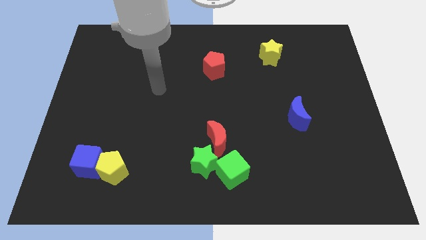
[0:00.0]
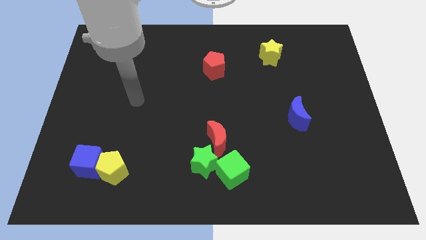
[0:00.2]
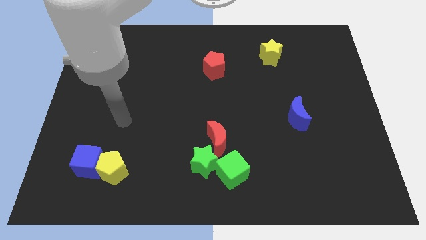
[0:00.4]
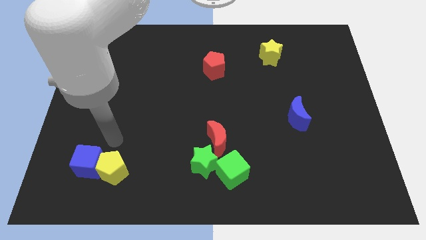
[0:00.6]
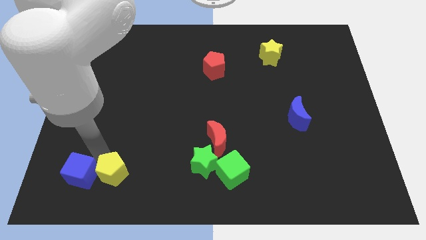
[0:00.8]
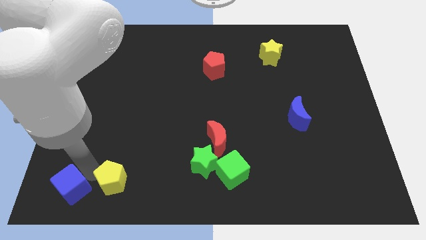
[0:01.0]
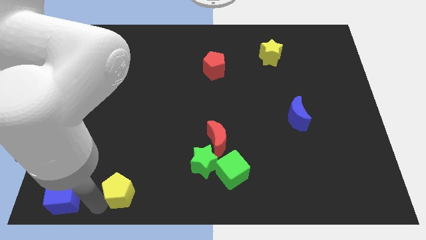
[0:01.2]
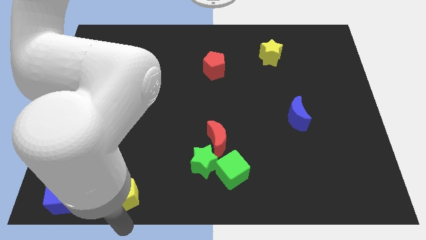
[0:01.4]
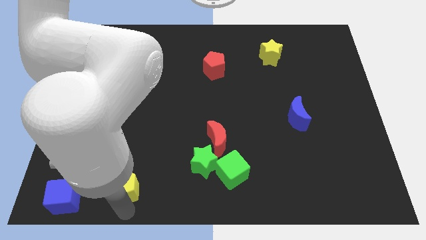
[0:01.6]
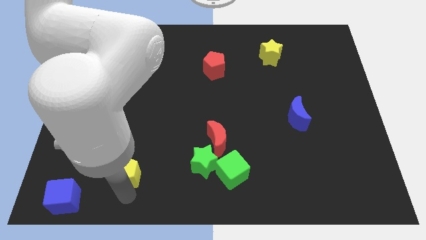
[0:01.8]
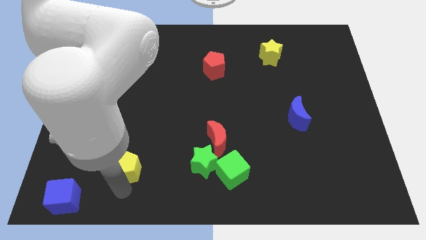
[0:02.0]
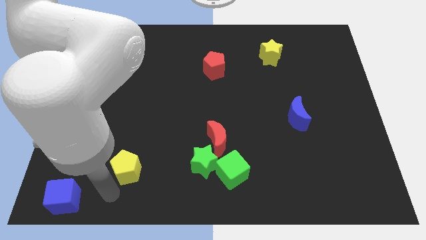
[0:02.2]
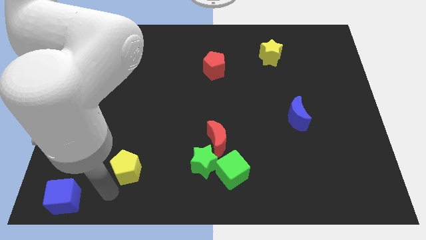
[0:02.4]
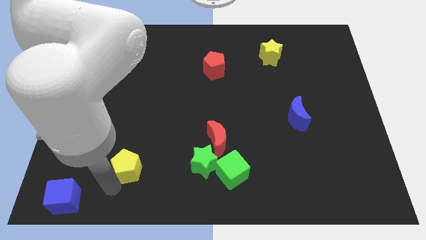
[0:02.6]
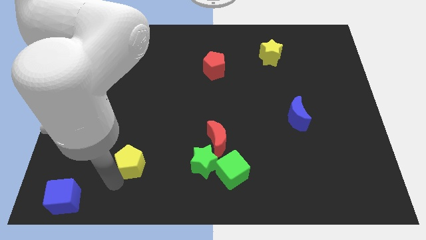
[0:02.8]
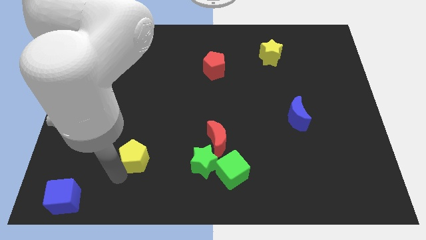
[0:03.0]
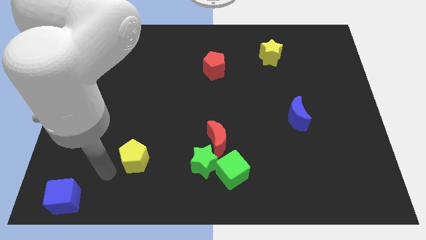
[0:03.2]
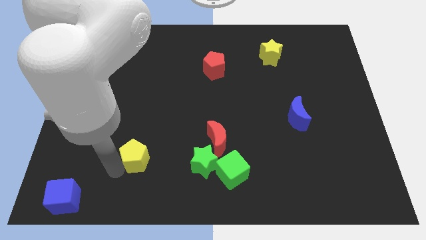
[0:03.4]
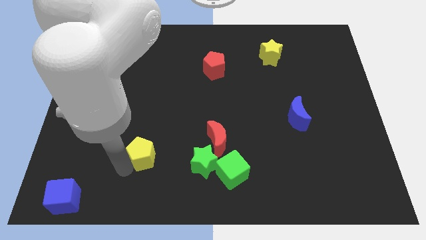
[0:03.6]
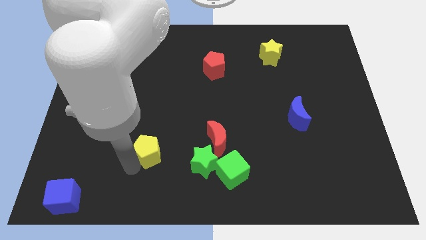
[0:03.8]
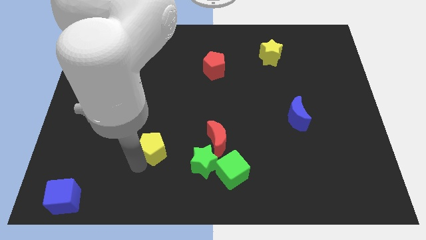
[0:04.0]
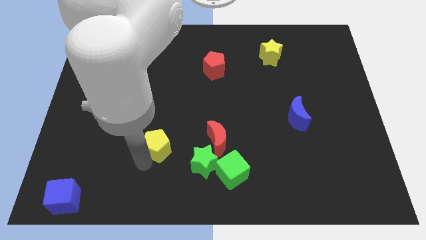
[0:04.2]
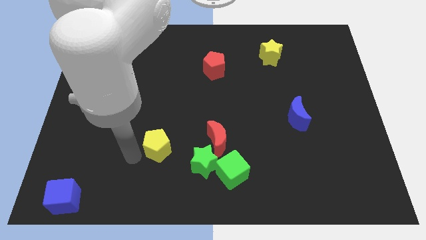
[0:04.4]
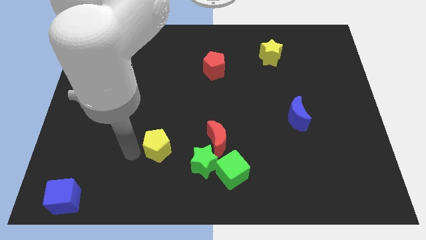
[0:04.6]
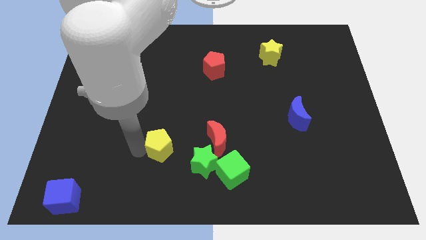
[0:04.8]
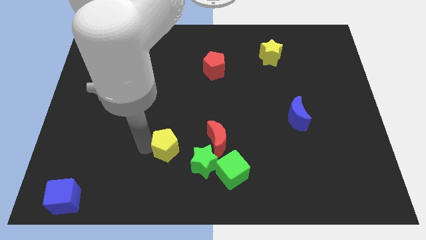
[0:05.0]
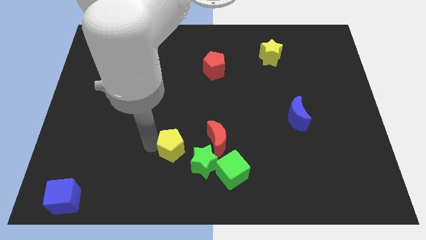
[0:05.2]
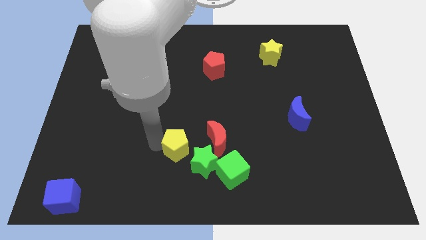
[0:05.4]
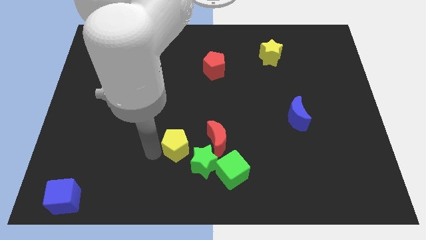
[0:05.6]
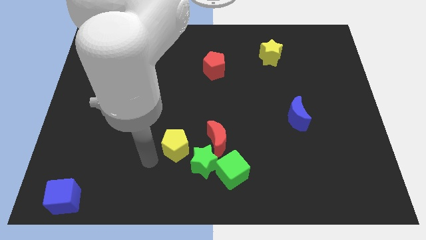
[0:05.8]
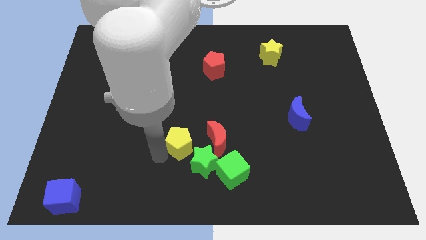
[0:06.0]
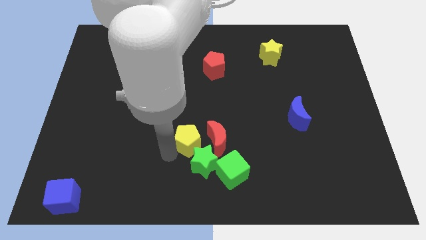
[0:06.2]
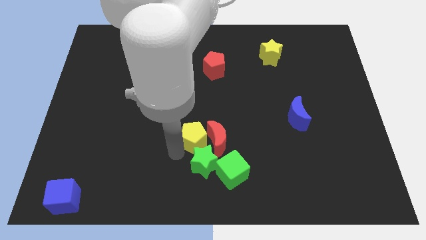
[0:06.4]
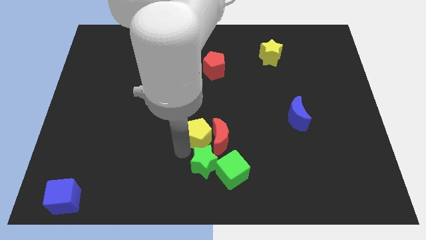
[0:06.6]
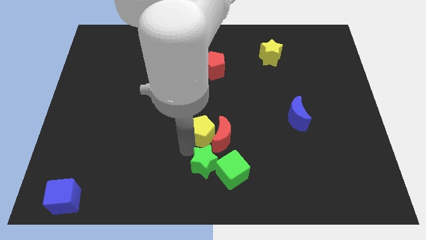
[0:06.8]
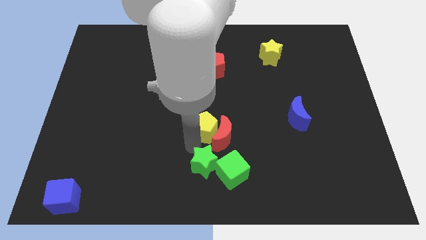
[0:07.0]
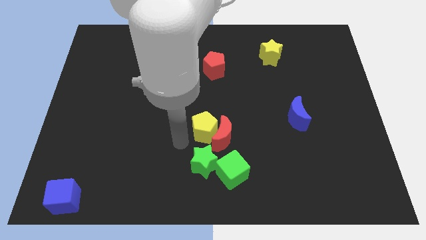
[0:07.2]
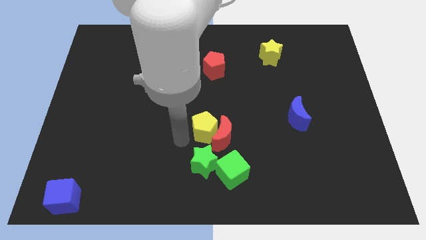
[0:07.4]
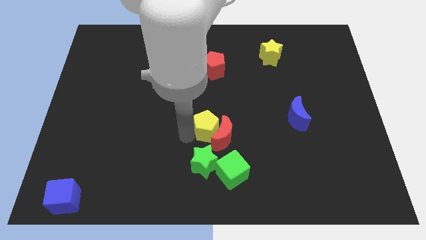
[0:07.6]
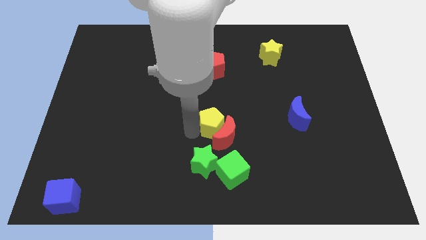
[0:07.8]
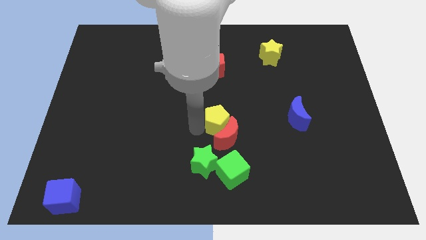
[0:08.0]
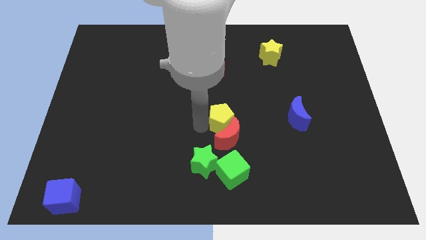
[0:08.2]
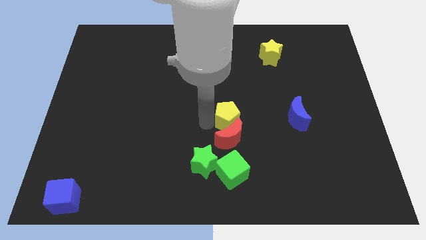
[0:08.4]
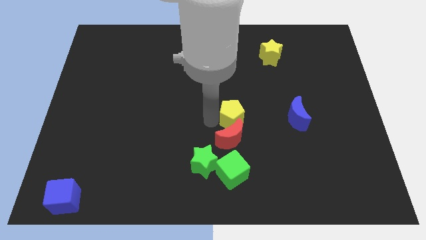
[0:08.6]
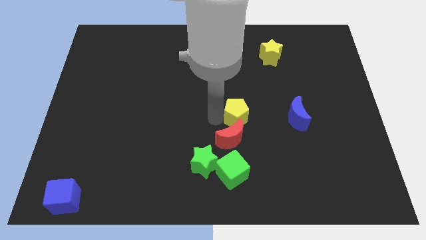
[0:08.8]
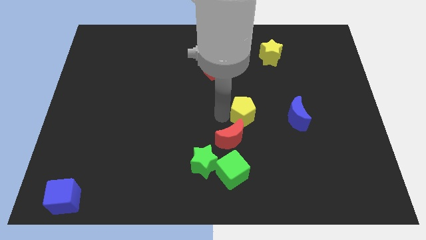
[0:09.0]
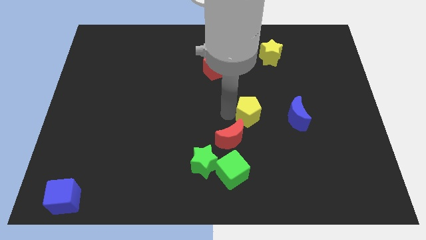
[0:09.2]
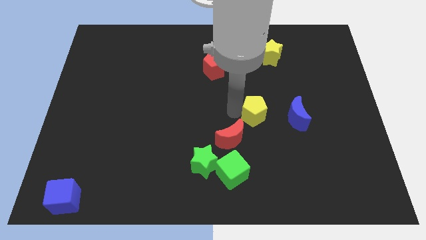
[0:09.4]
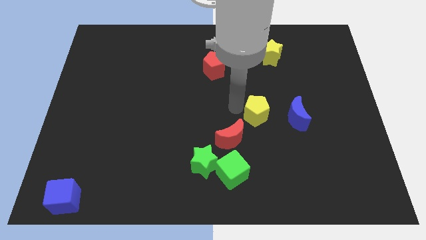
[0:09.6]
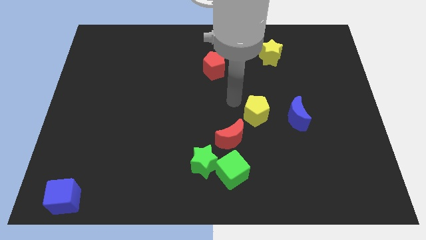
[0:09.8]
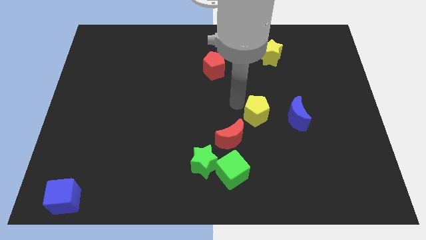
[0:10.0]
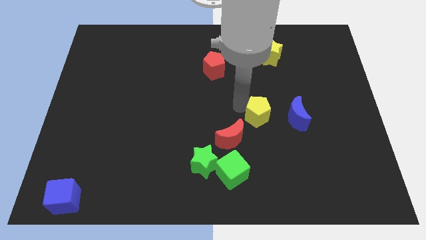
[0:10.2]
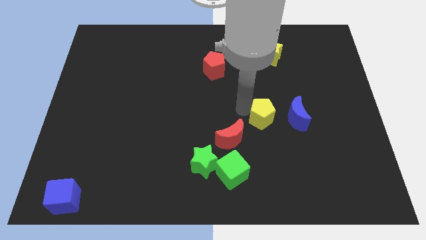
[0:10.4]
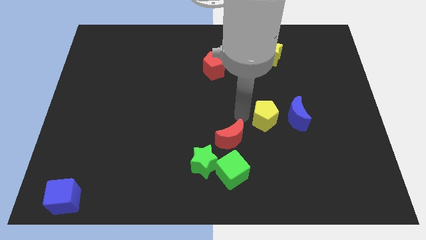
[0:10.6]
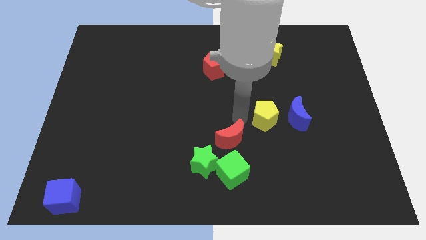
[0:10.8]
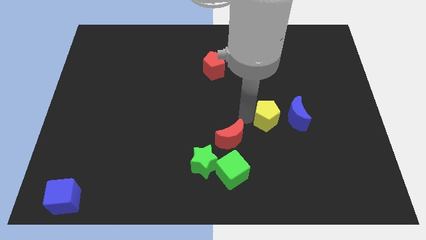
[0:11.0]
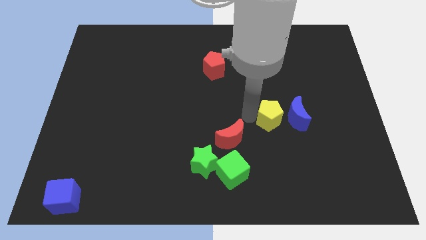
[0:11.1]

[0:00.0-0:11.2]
put the yellow pentagon next to the blue moon

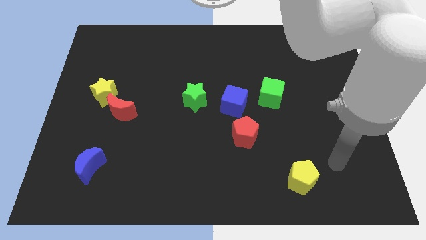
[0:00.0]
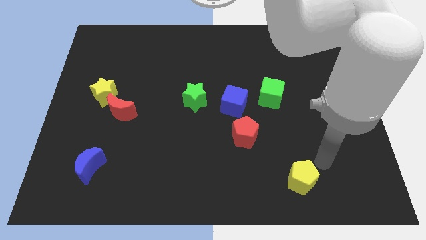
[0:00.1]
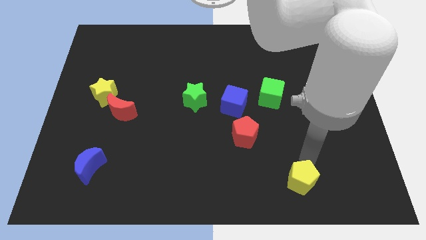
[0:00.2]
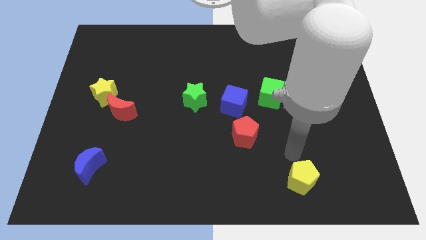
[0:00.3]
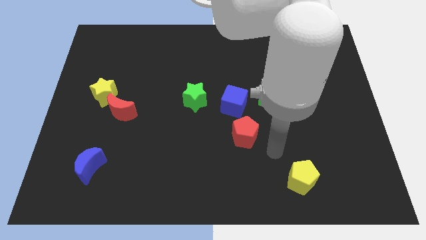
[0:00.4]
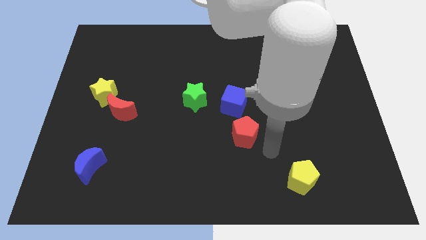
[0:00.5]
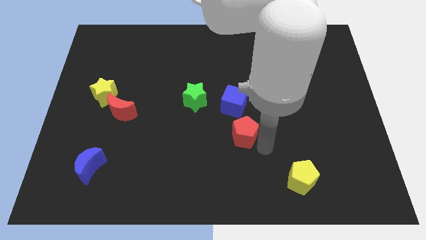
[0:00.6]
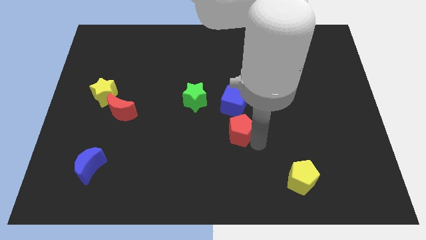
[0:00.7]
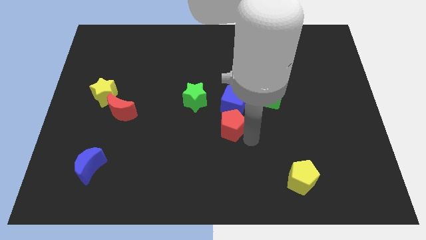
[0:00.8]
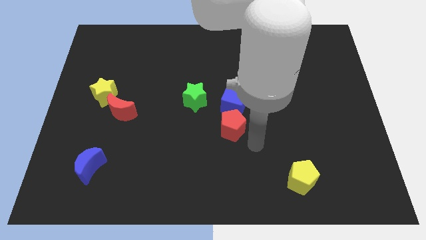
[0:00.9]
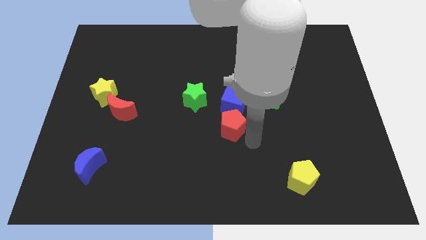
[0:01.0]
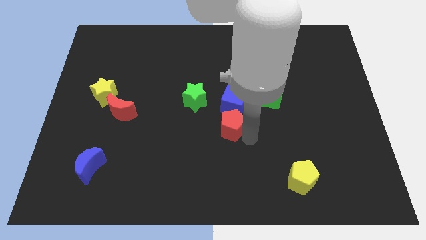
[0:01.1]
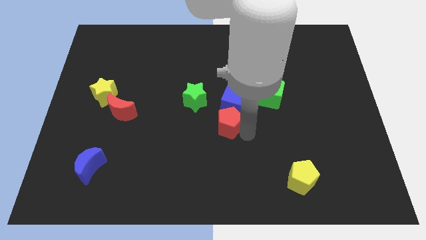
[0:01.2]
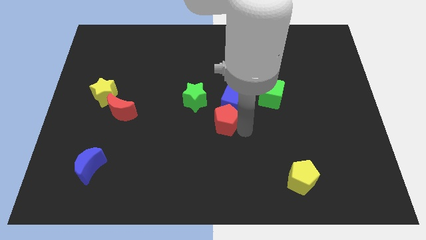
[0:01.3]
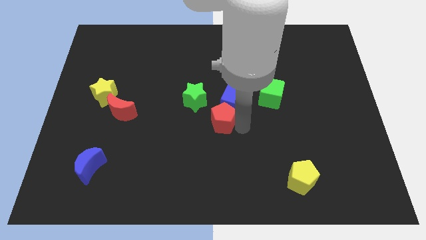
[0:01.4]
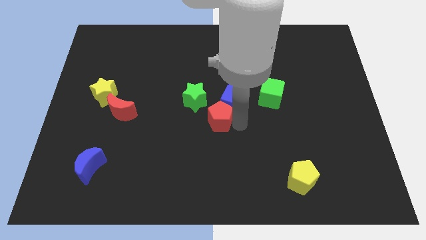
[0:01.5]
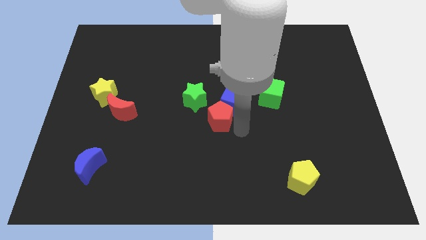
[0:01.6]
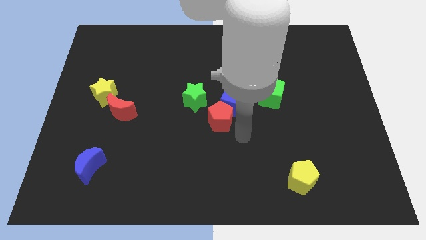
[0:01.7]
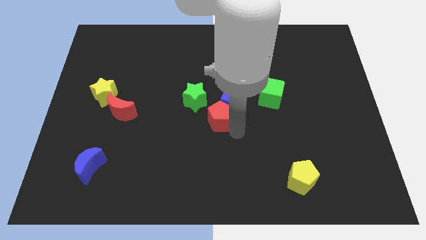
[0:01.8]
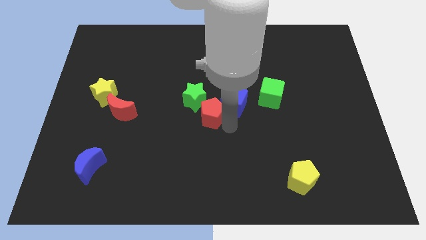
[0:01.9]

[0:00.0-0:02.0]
put the red pentagon next to the green star
